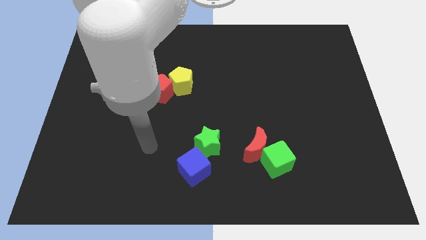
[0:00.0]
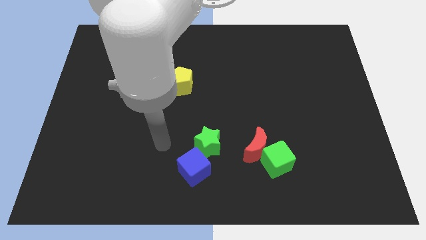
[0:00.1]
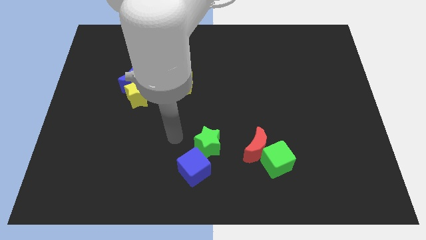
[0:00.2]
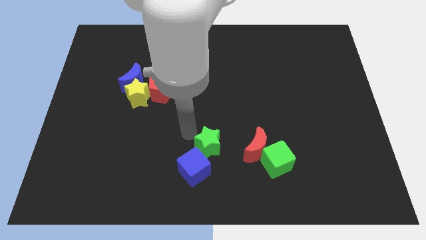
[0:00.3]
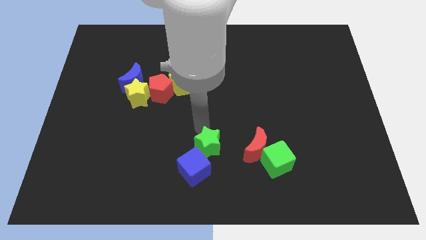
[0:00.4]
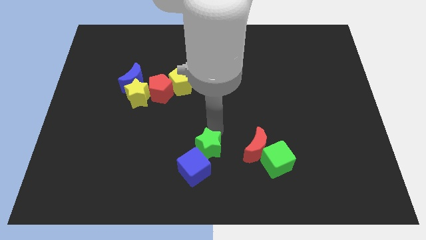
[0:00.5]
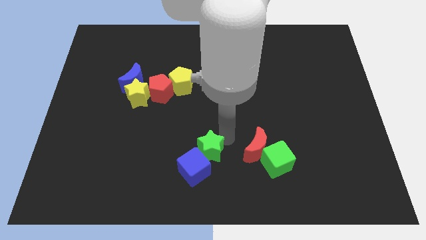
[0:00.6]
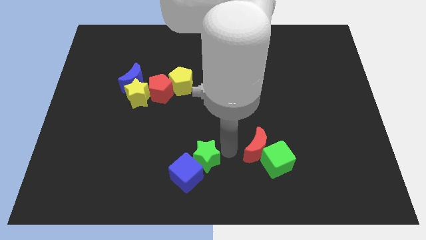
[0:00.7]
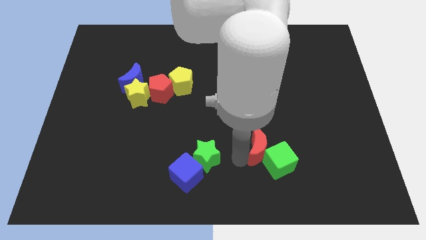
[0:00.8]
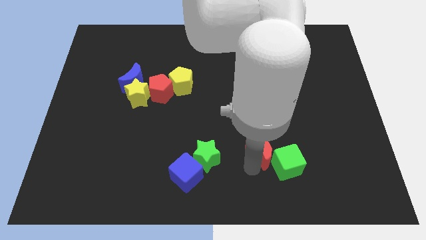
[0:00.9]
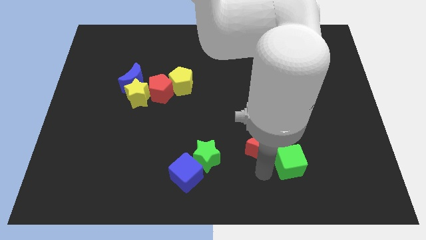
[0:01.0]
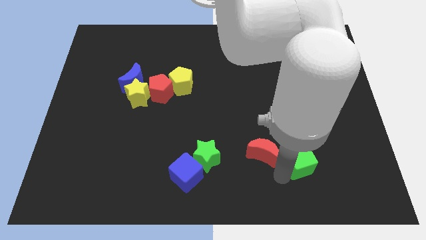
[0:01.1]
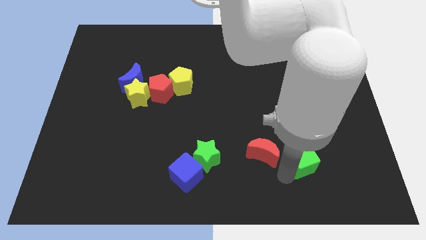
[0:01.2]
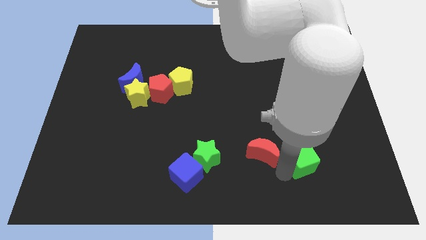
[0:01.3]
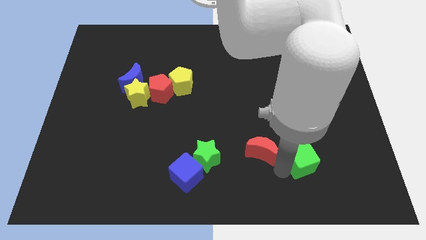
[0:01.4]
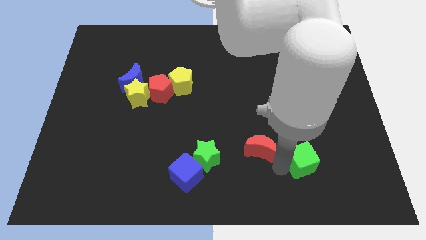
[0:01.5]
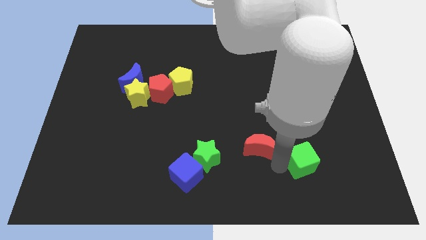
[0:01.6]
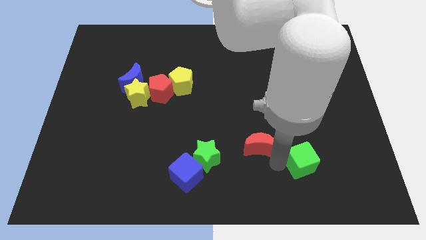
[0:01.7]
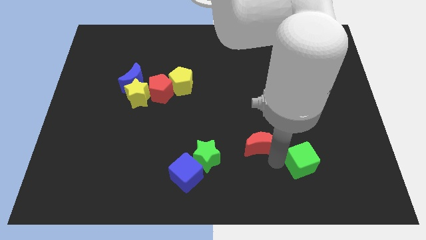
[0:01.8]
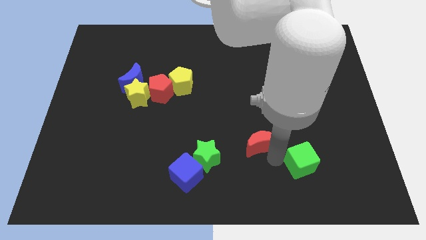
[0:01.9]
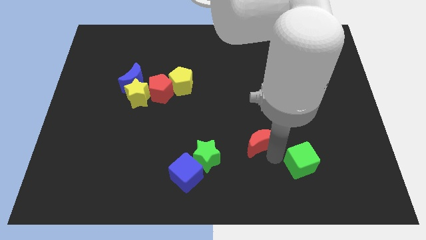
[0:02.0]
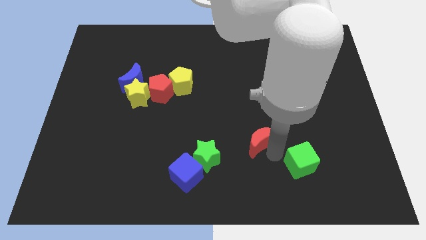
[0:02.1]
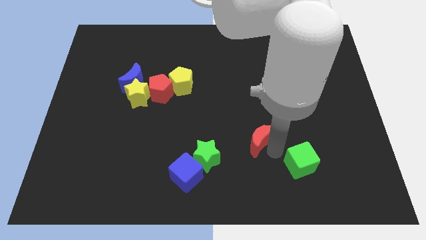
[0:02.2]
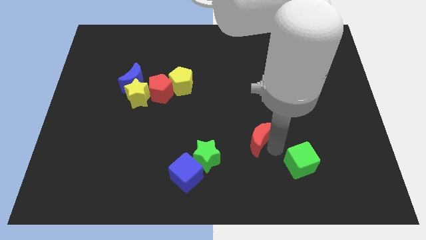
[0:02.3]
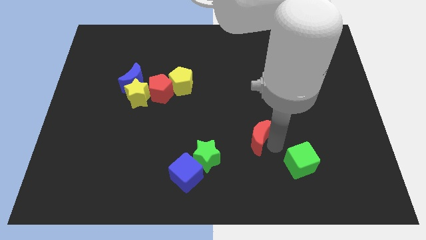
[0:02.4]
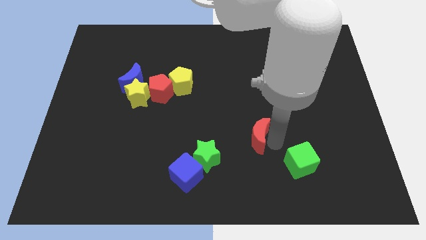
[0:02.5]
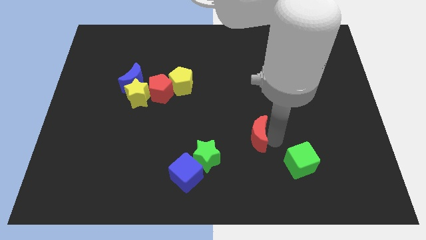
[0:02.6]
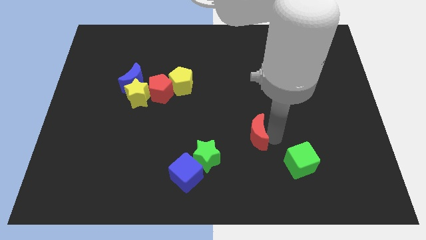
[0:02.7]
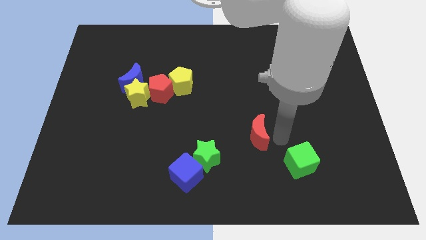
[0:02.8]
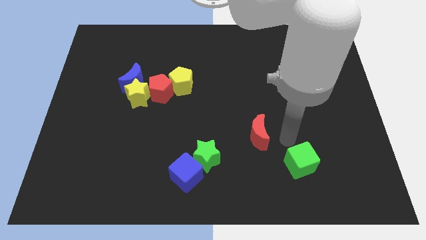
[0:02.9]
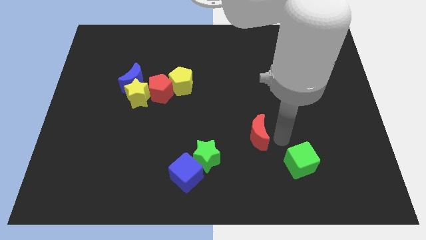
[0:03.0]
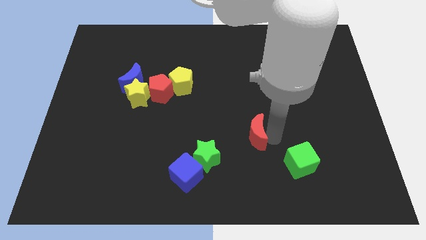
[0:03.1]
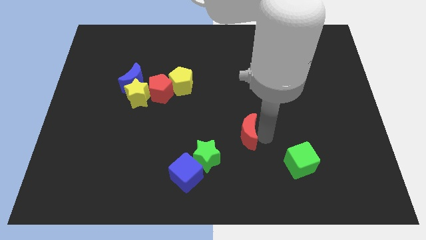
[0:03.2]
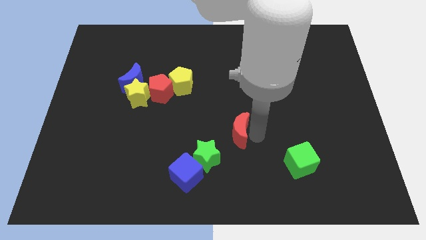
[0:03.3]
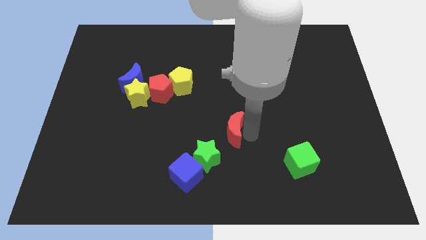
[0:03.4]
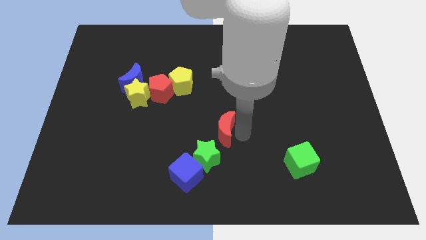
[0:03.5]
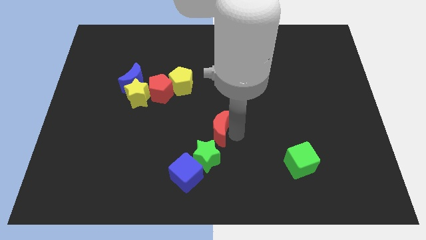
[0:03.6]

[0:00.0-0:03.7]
slightly move the red moon to the left

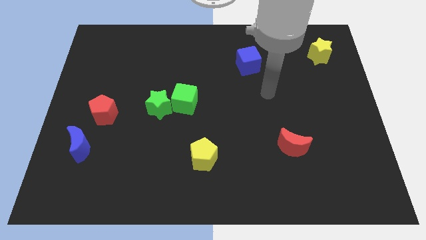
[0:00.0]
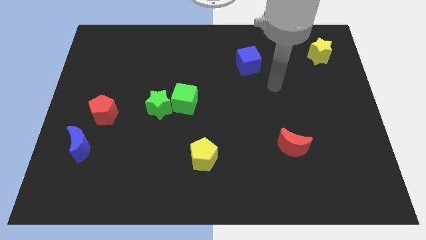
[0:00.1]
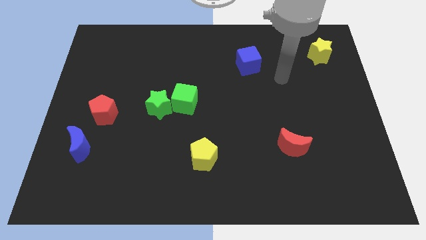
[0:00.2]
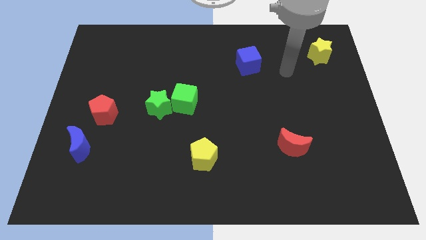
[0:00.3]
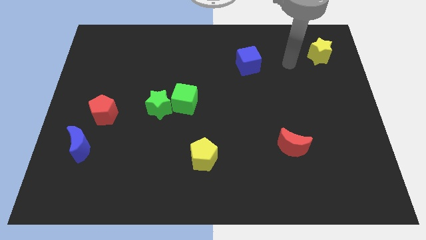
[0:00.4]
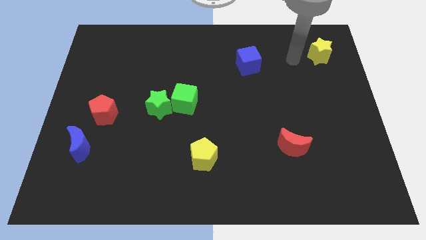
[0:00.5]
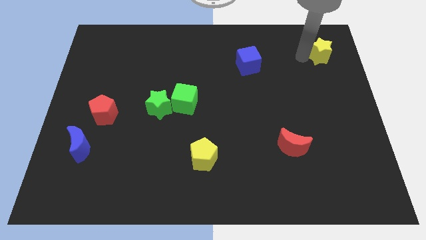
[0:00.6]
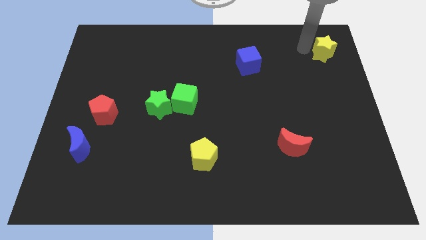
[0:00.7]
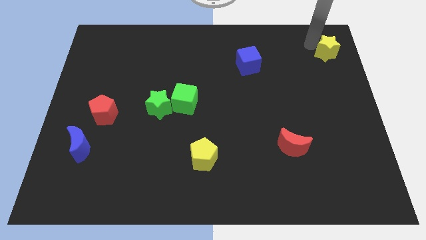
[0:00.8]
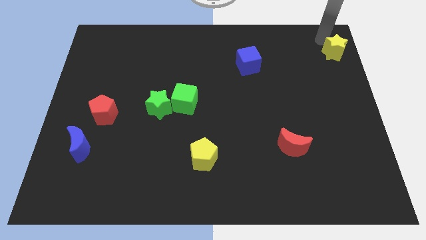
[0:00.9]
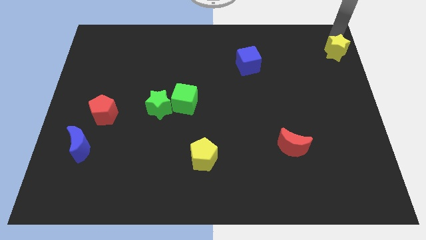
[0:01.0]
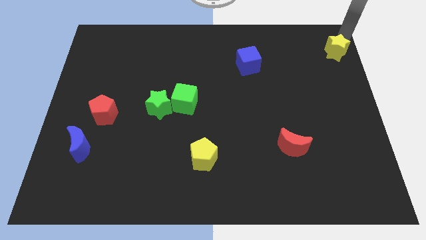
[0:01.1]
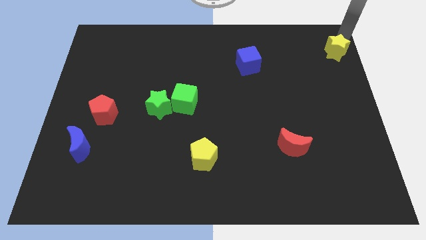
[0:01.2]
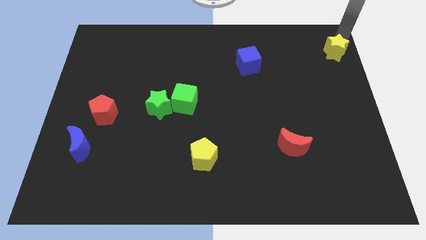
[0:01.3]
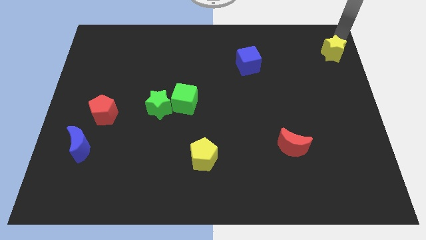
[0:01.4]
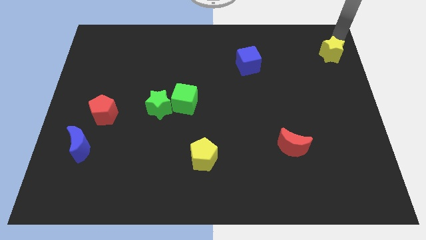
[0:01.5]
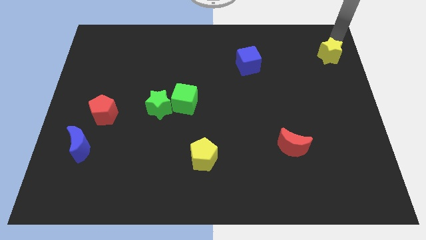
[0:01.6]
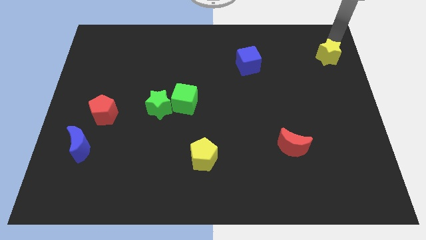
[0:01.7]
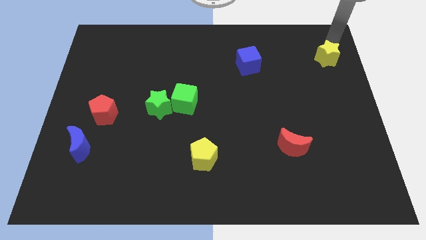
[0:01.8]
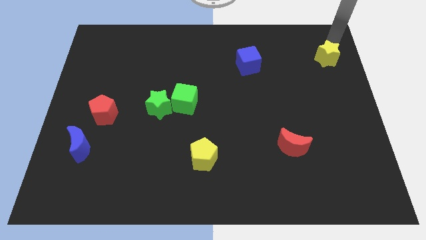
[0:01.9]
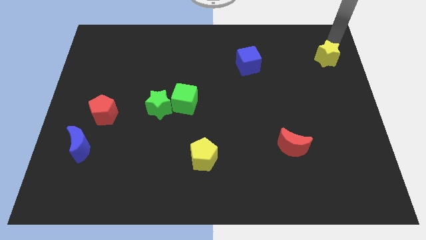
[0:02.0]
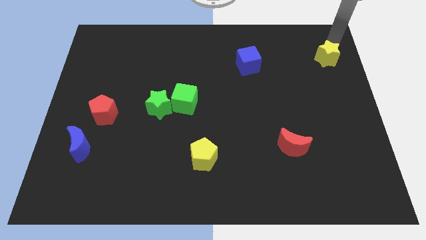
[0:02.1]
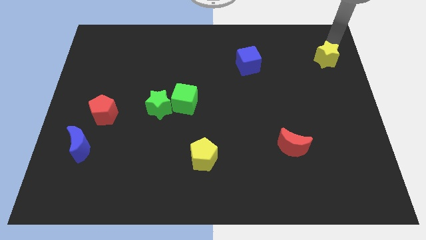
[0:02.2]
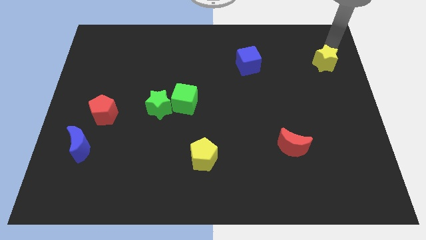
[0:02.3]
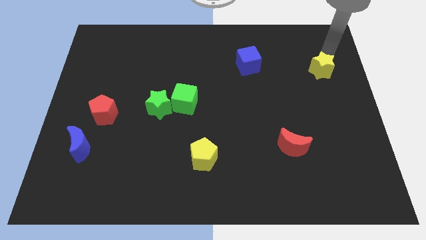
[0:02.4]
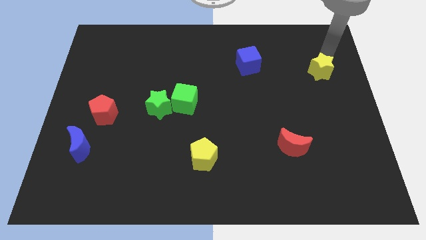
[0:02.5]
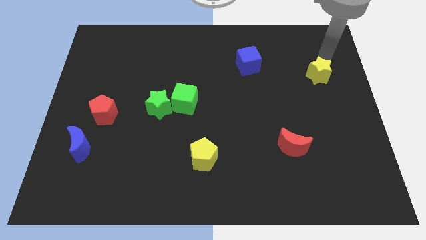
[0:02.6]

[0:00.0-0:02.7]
slightly slide the yellow star downwards

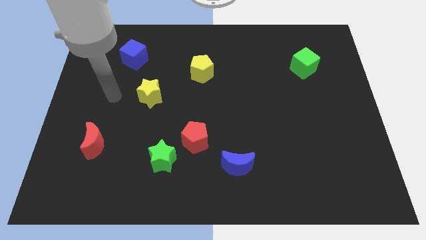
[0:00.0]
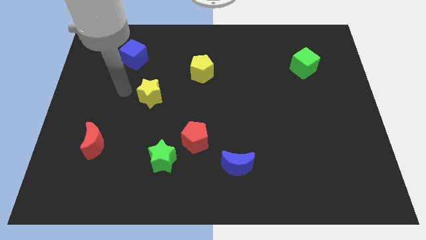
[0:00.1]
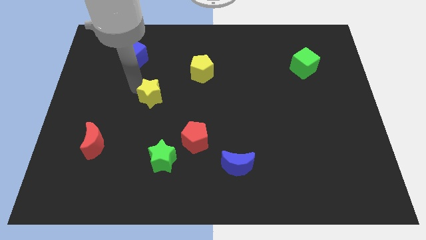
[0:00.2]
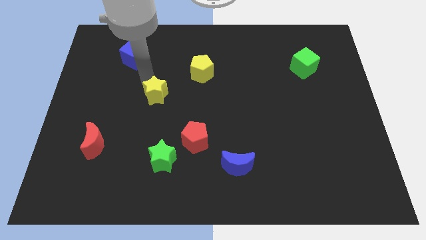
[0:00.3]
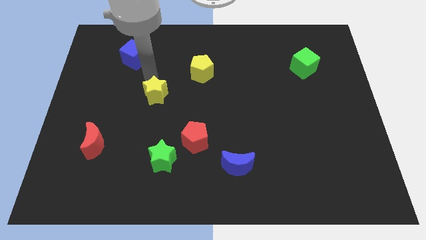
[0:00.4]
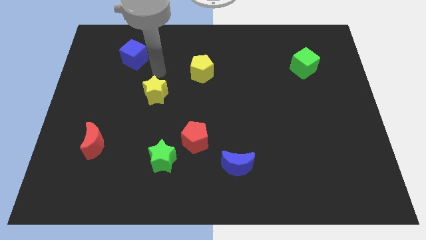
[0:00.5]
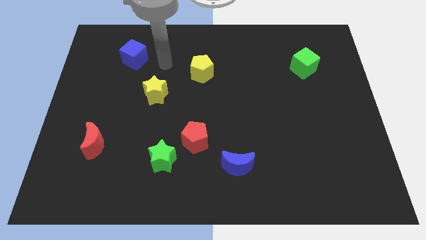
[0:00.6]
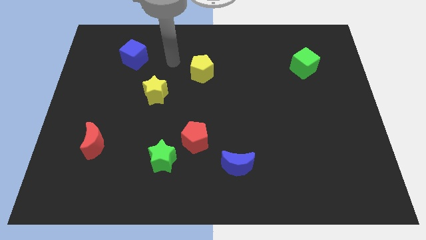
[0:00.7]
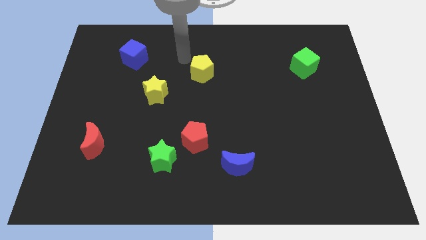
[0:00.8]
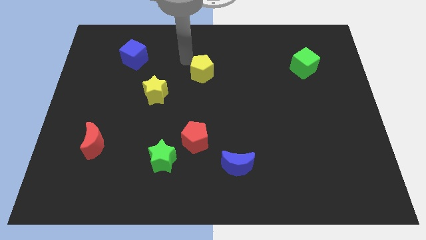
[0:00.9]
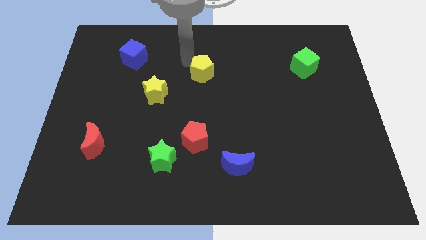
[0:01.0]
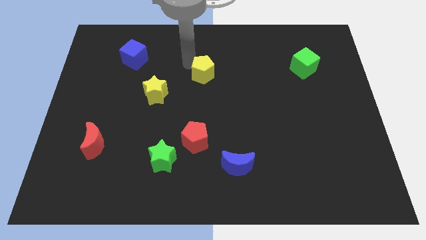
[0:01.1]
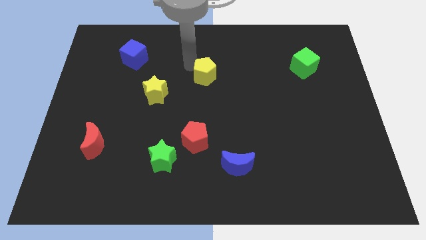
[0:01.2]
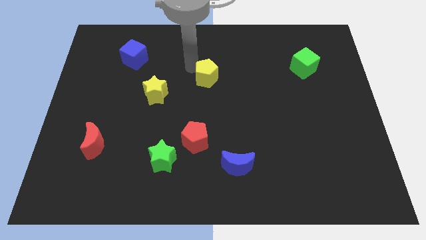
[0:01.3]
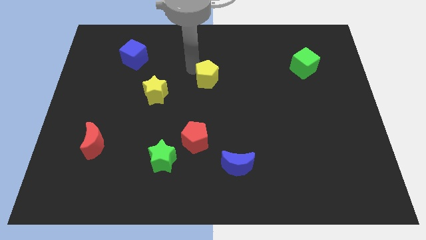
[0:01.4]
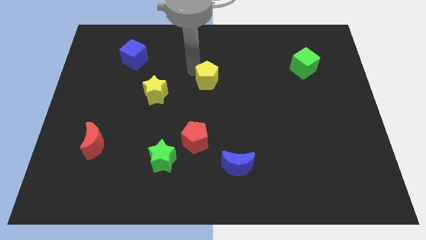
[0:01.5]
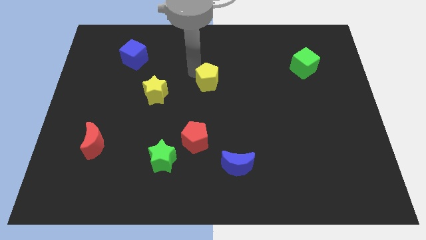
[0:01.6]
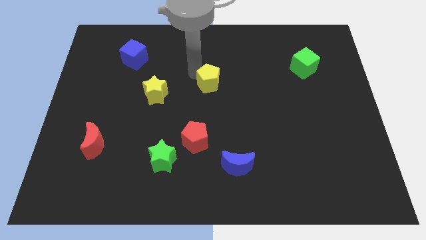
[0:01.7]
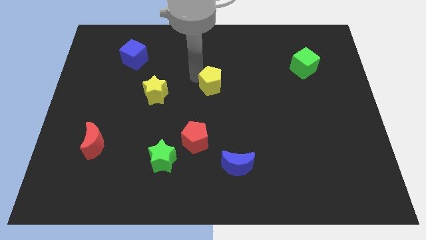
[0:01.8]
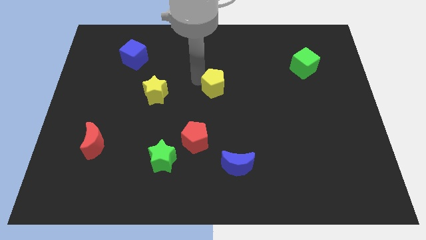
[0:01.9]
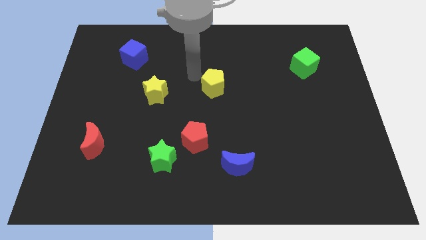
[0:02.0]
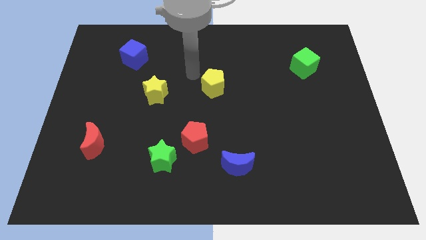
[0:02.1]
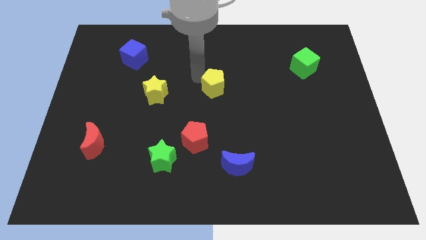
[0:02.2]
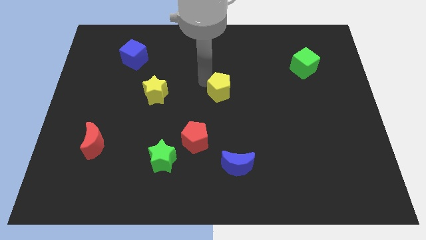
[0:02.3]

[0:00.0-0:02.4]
slightly slide the yellow pentagon diagonally downwards and to the right
